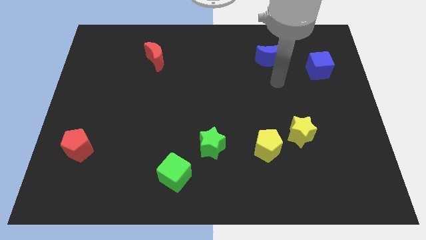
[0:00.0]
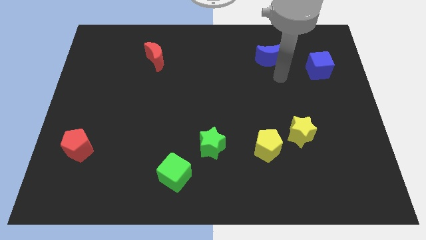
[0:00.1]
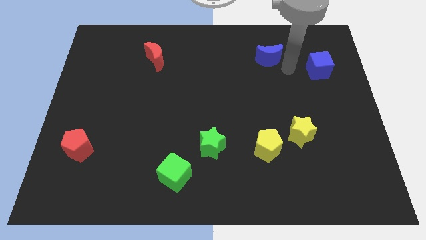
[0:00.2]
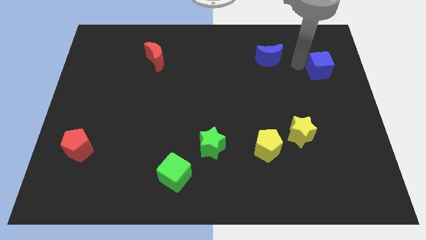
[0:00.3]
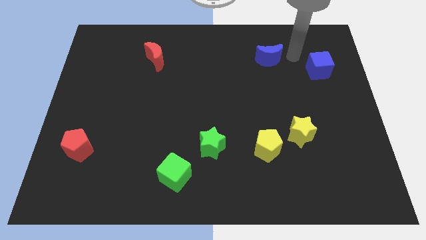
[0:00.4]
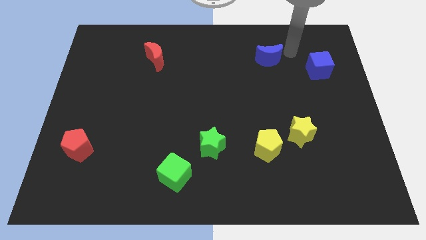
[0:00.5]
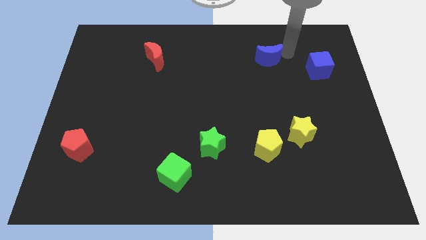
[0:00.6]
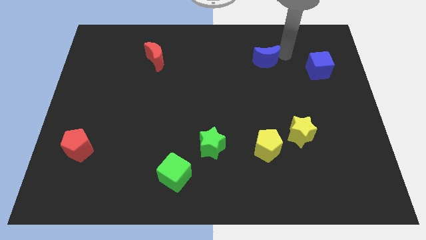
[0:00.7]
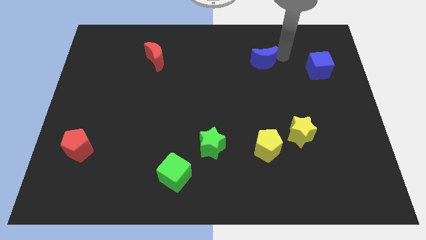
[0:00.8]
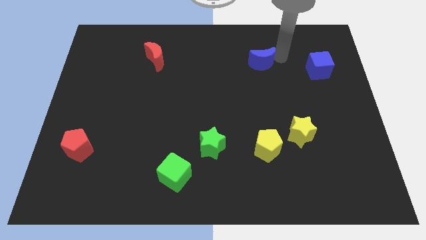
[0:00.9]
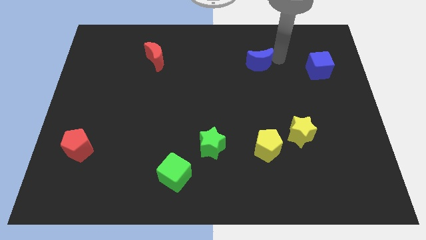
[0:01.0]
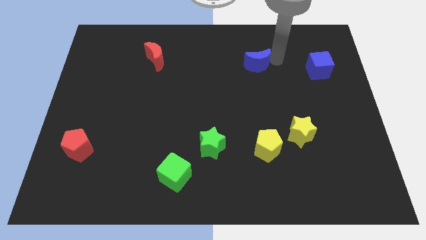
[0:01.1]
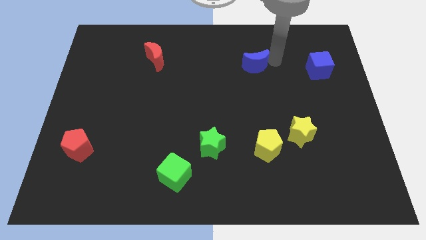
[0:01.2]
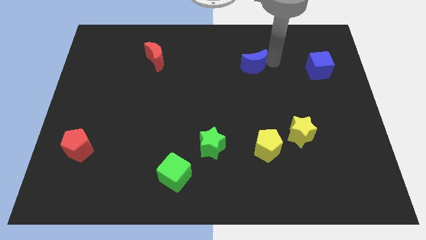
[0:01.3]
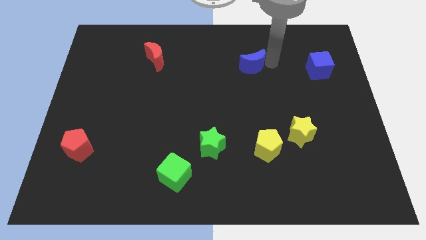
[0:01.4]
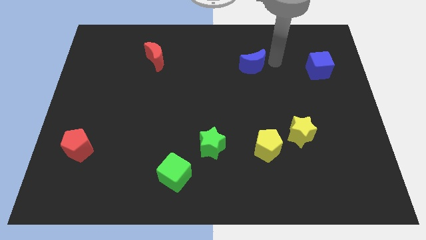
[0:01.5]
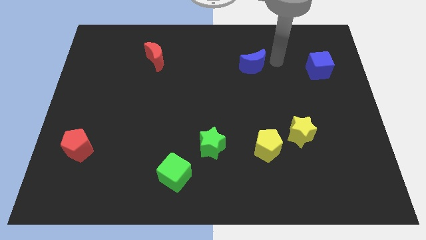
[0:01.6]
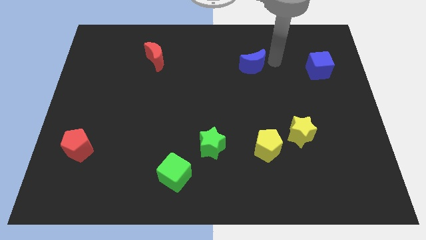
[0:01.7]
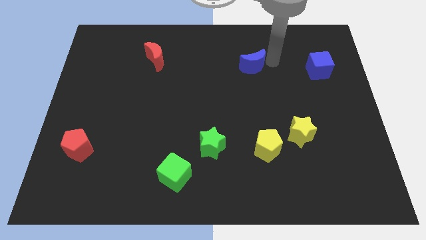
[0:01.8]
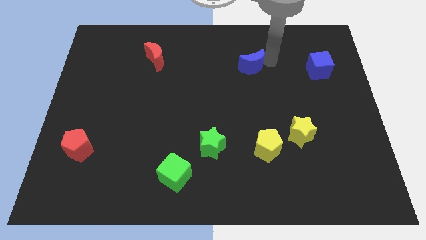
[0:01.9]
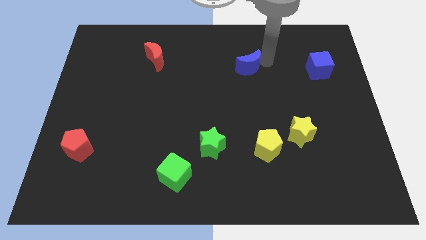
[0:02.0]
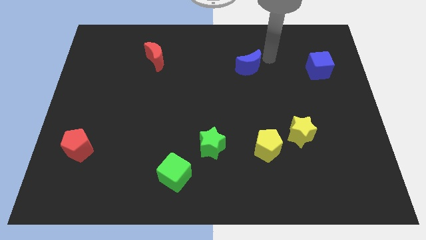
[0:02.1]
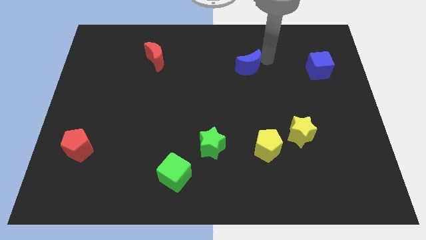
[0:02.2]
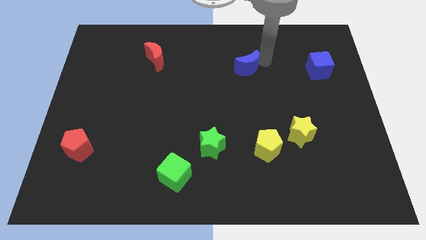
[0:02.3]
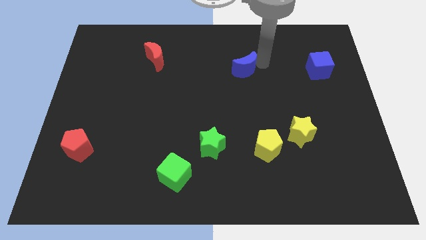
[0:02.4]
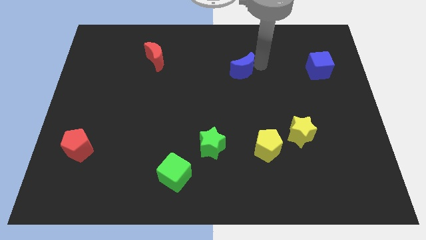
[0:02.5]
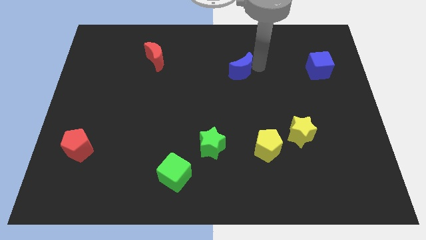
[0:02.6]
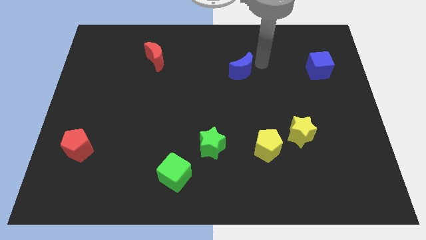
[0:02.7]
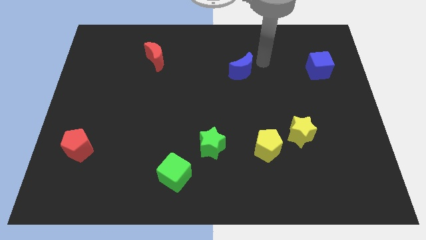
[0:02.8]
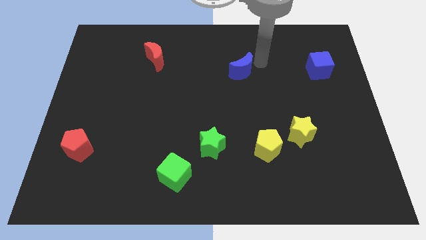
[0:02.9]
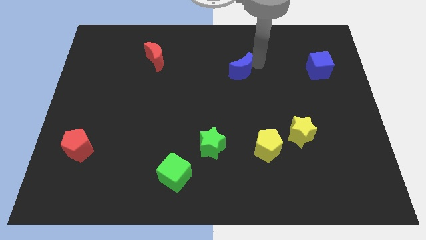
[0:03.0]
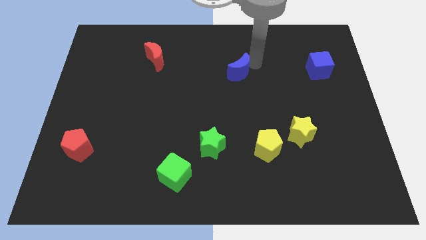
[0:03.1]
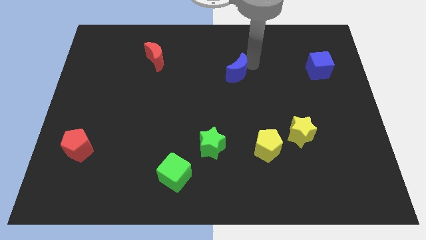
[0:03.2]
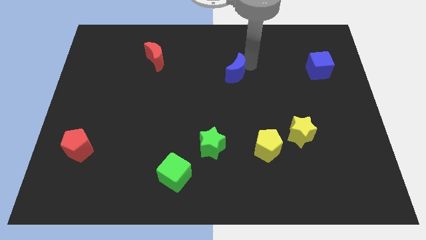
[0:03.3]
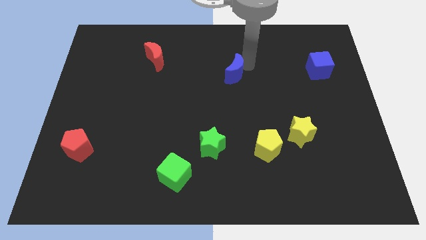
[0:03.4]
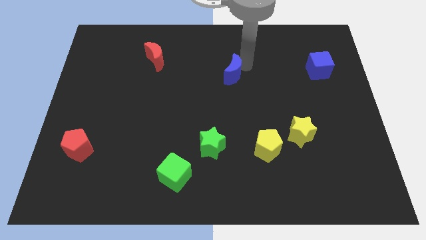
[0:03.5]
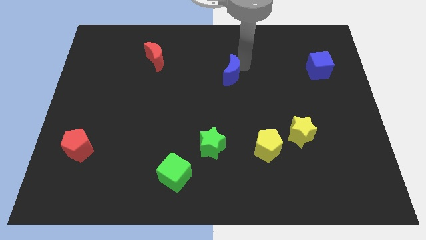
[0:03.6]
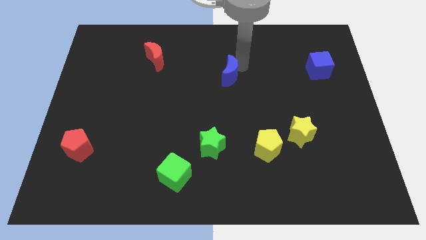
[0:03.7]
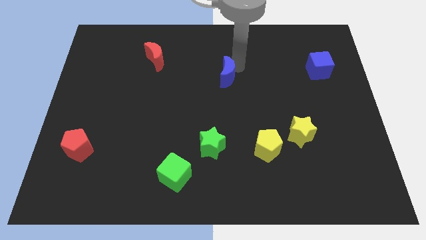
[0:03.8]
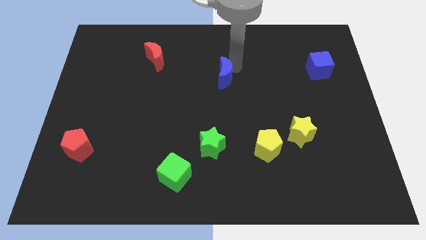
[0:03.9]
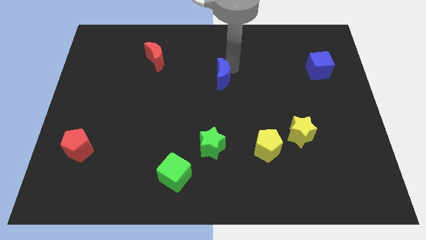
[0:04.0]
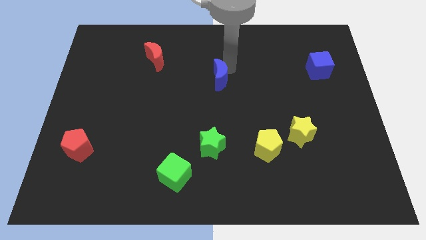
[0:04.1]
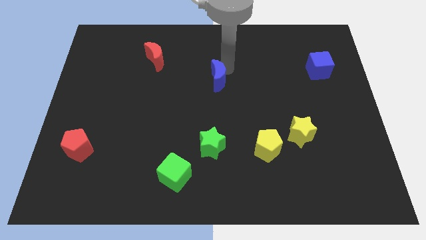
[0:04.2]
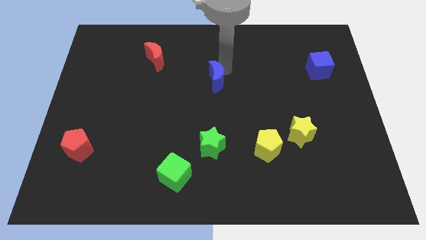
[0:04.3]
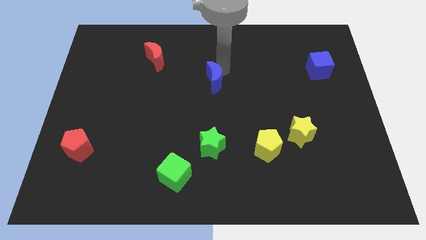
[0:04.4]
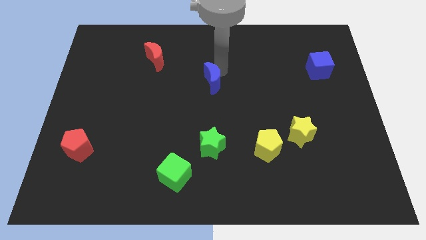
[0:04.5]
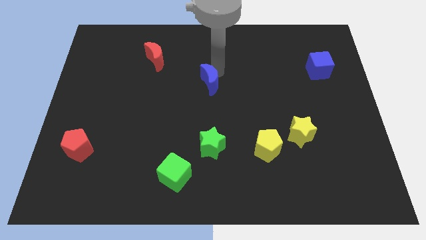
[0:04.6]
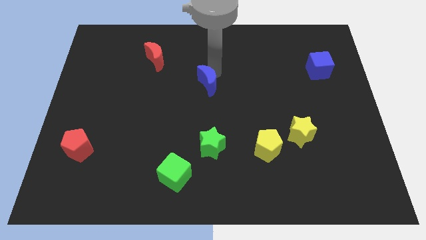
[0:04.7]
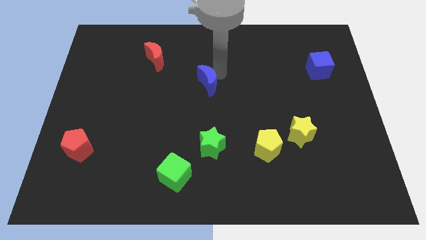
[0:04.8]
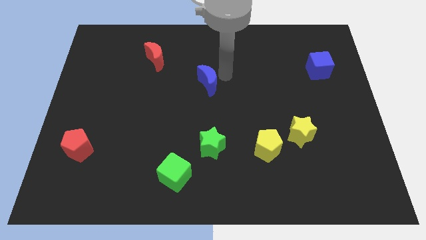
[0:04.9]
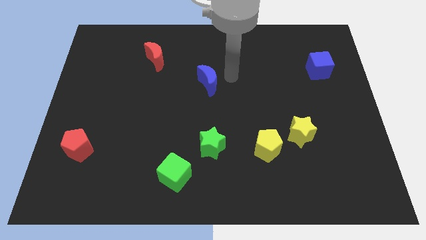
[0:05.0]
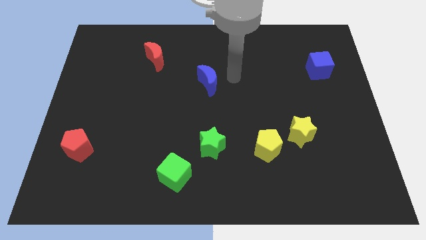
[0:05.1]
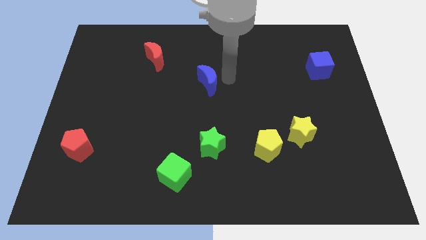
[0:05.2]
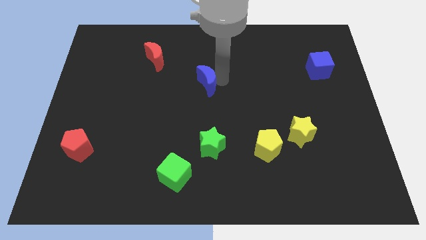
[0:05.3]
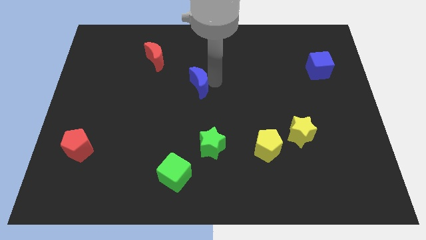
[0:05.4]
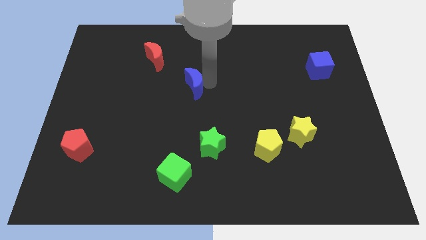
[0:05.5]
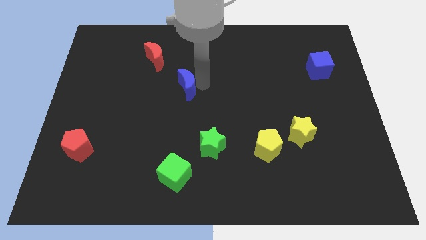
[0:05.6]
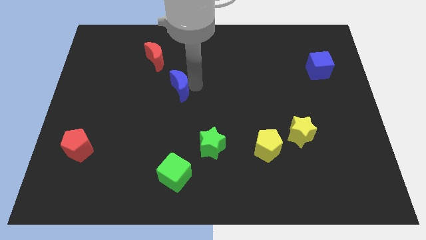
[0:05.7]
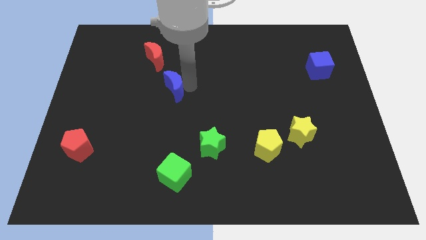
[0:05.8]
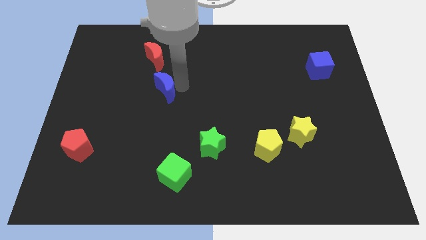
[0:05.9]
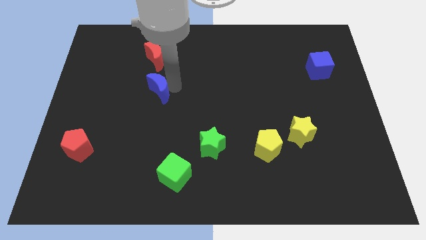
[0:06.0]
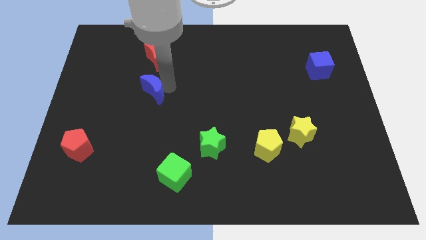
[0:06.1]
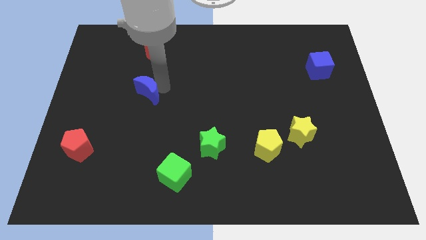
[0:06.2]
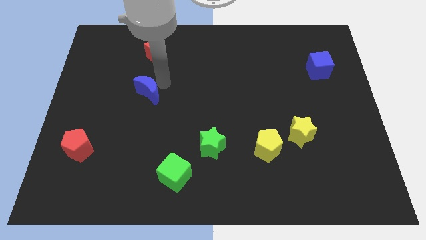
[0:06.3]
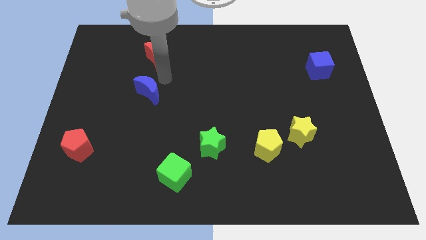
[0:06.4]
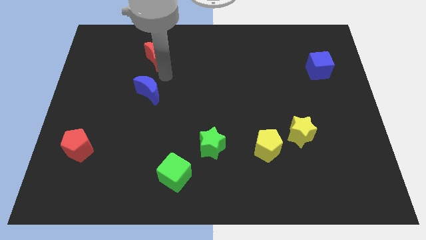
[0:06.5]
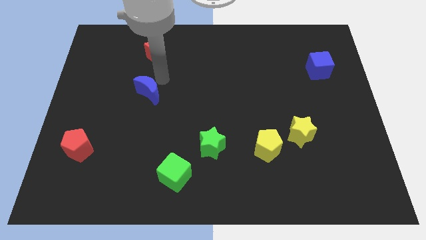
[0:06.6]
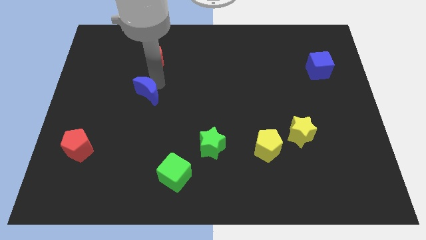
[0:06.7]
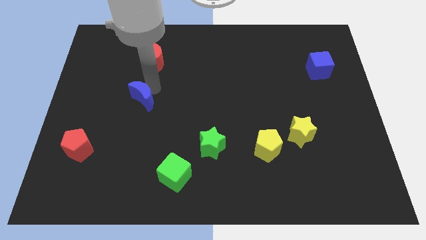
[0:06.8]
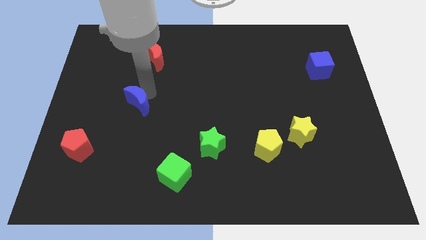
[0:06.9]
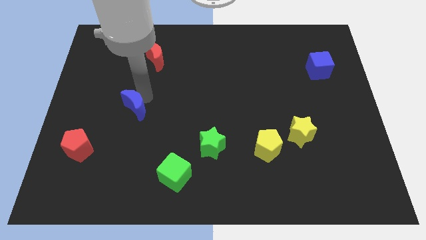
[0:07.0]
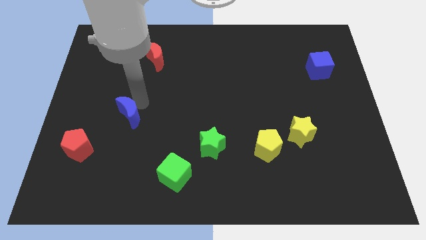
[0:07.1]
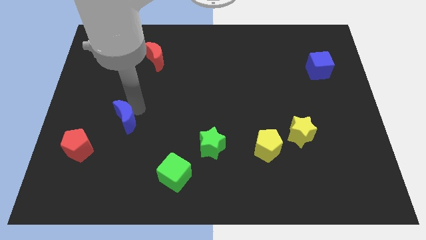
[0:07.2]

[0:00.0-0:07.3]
put the blue moon diagonally up and to the right of the red pentagon
